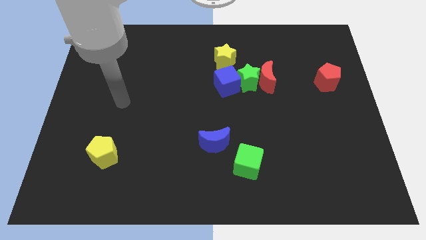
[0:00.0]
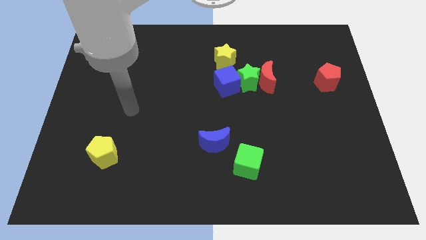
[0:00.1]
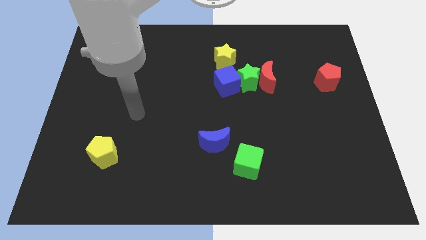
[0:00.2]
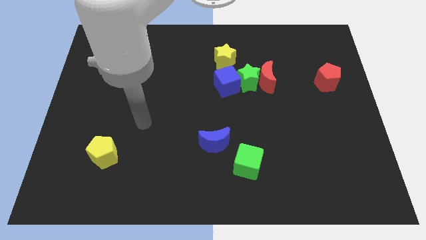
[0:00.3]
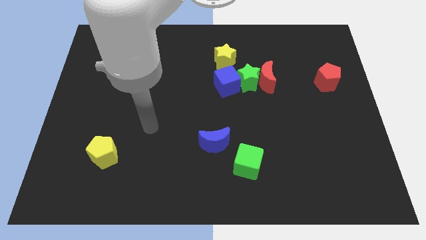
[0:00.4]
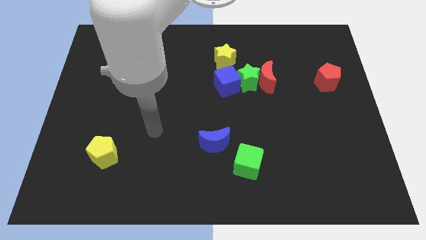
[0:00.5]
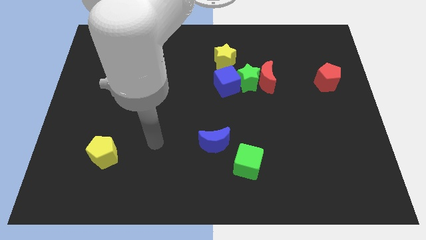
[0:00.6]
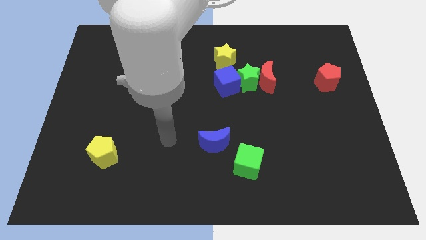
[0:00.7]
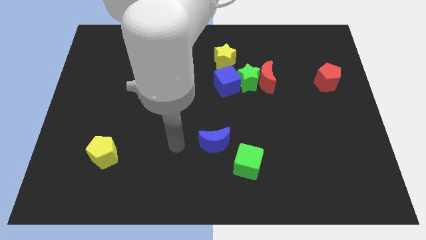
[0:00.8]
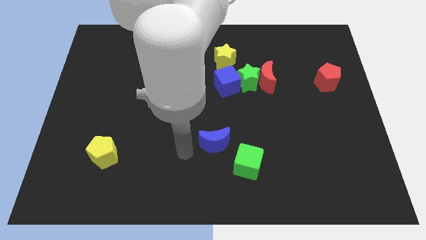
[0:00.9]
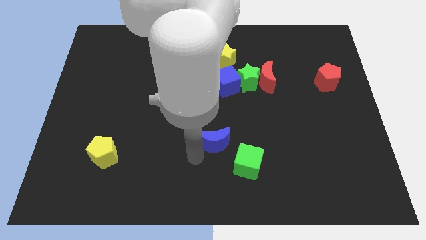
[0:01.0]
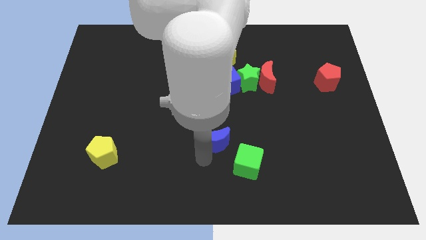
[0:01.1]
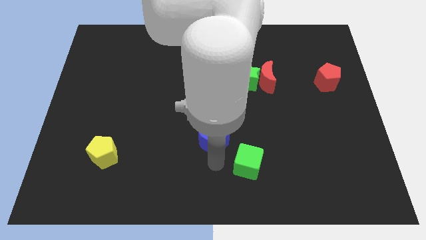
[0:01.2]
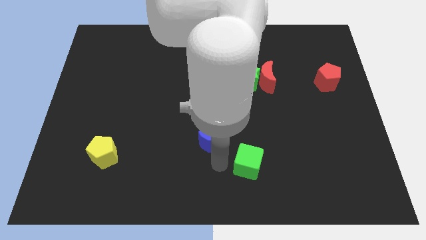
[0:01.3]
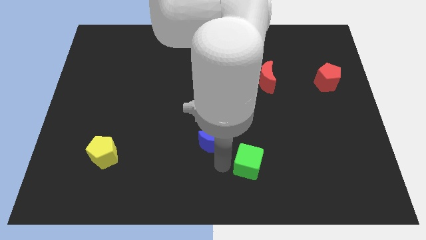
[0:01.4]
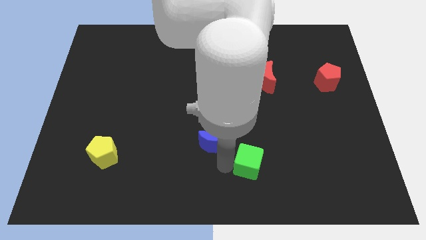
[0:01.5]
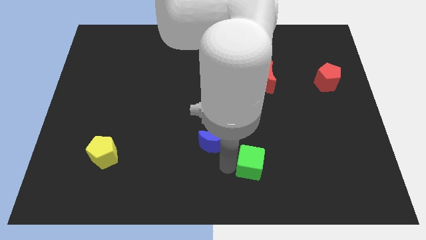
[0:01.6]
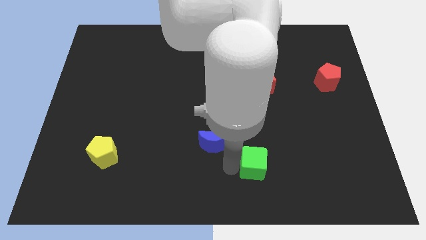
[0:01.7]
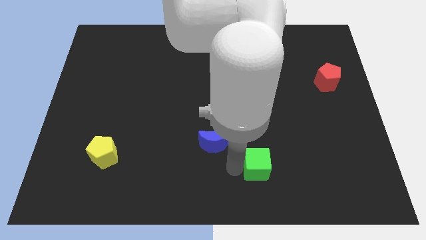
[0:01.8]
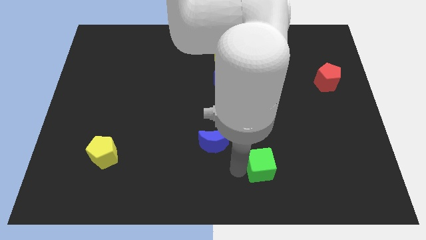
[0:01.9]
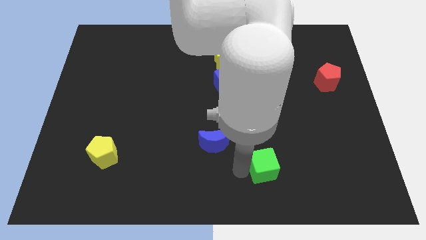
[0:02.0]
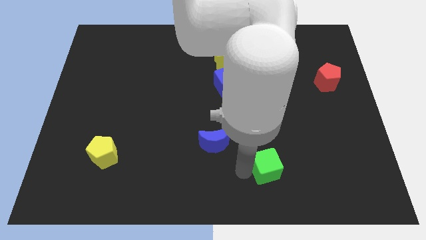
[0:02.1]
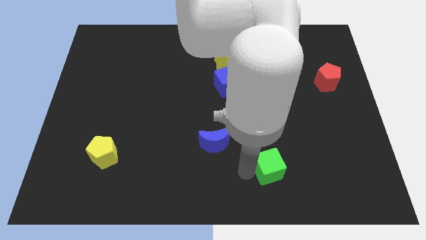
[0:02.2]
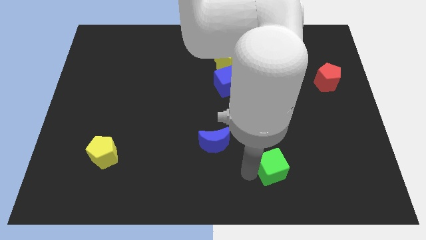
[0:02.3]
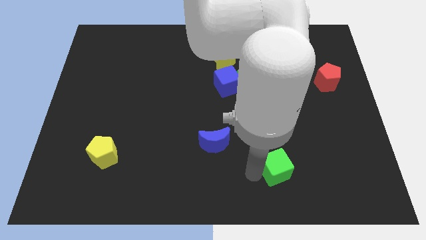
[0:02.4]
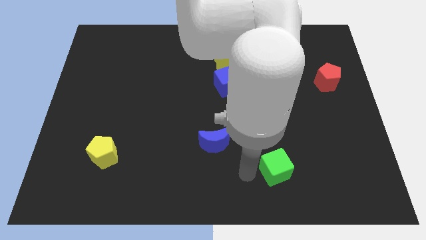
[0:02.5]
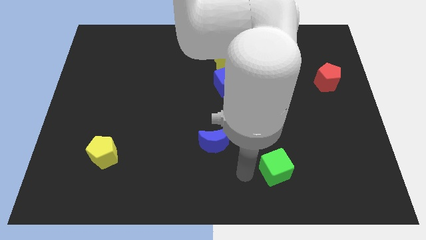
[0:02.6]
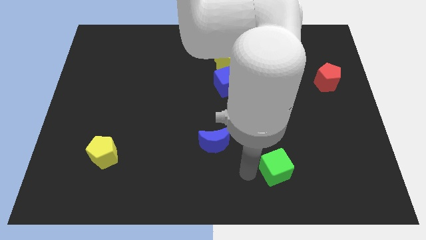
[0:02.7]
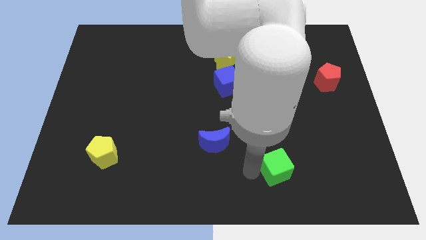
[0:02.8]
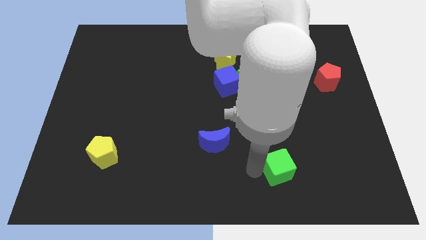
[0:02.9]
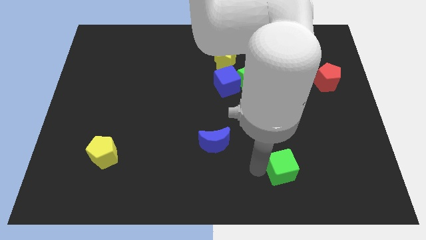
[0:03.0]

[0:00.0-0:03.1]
slightly move the green cube right

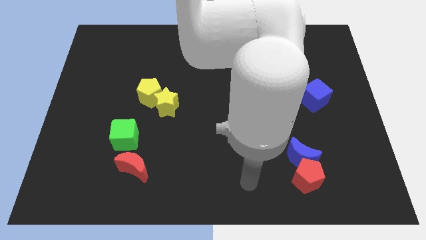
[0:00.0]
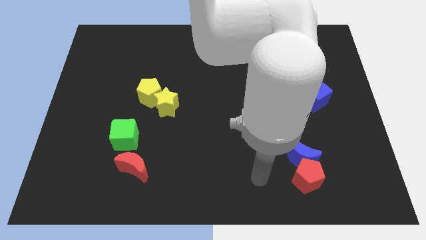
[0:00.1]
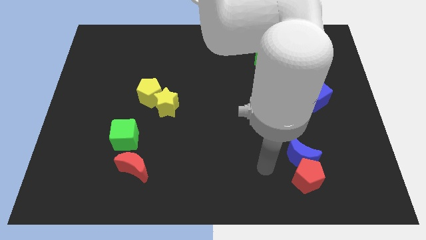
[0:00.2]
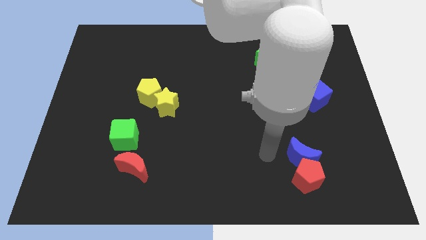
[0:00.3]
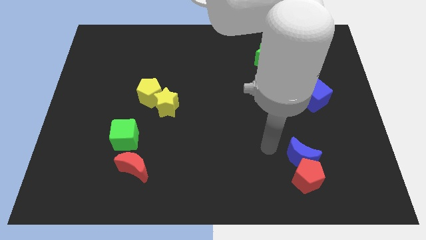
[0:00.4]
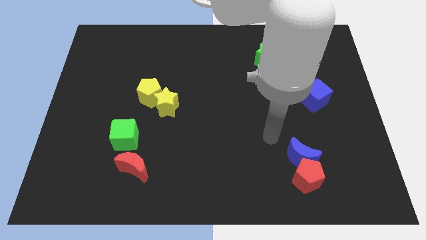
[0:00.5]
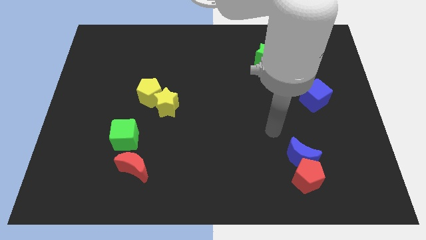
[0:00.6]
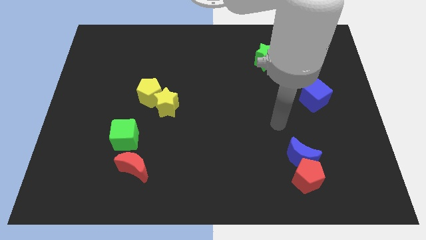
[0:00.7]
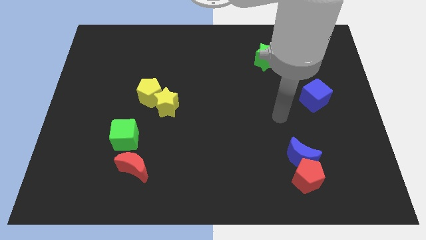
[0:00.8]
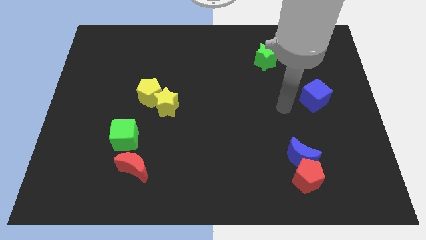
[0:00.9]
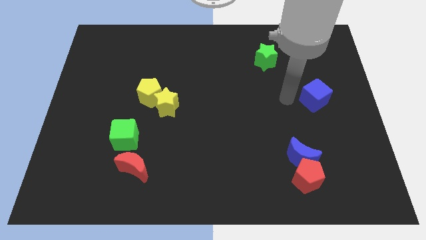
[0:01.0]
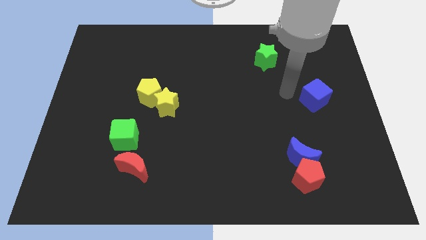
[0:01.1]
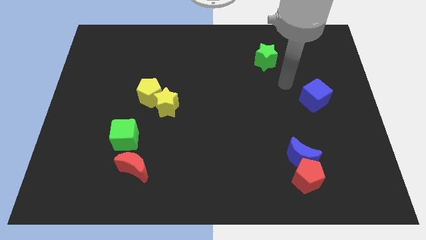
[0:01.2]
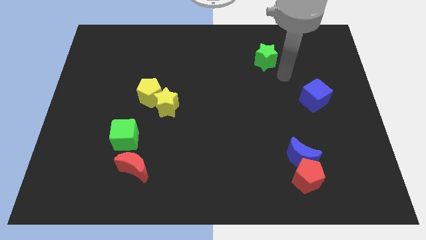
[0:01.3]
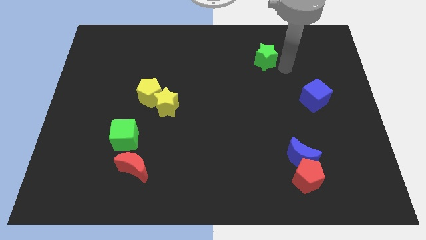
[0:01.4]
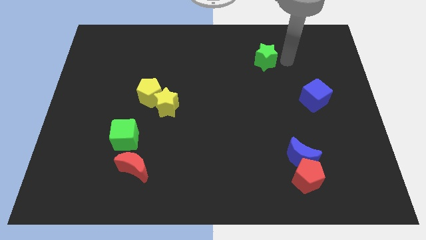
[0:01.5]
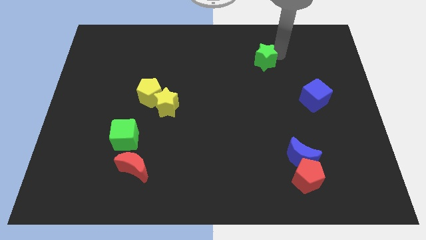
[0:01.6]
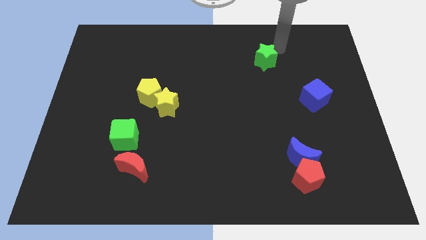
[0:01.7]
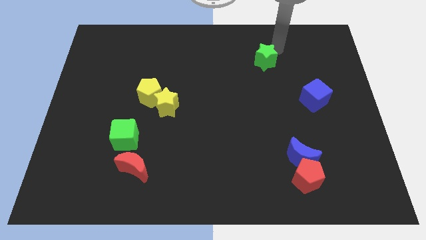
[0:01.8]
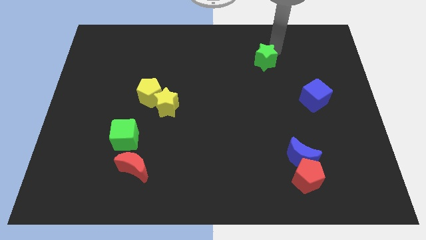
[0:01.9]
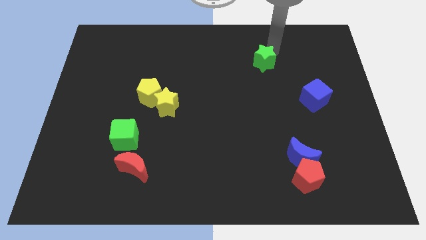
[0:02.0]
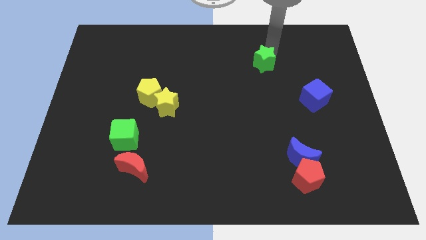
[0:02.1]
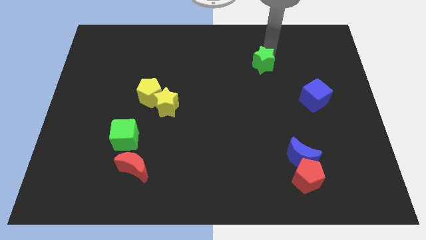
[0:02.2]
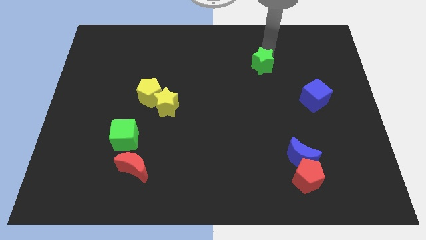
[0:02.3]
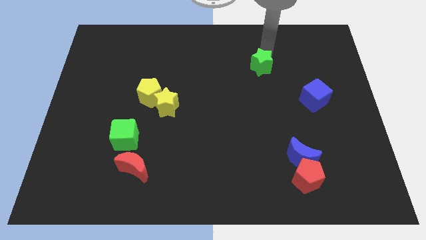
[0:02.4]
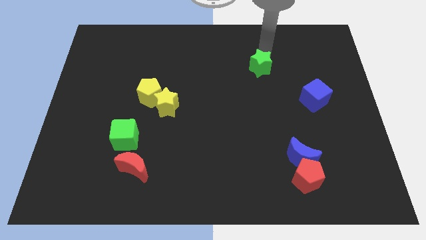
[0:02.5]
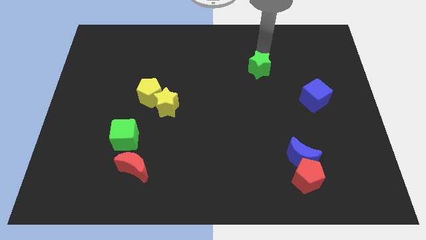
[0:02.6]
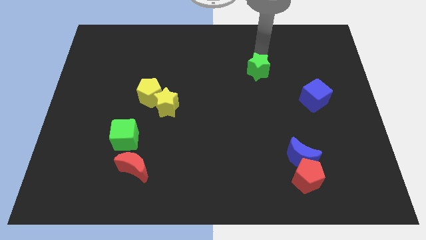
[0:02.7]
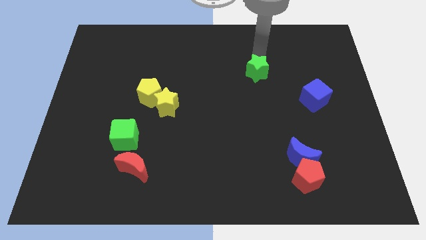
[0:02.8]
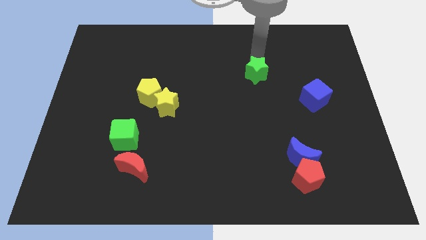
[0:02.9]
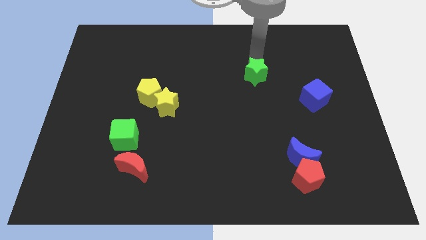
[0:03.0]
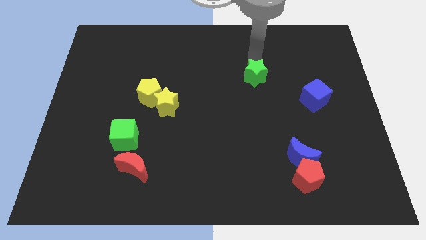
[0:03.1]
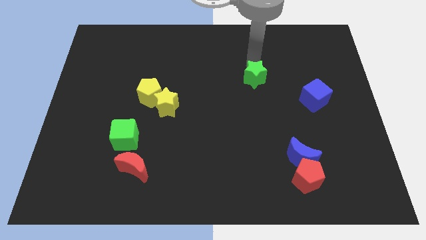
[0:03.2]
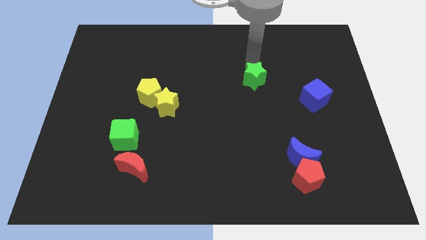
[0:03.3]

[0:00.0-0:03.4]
slide the green star downwards and then to the left a little bit

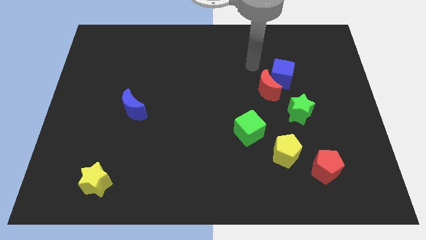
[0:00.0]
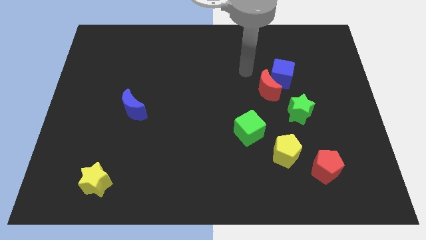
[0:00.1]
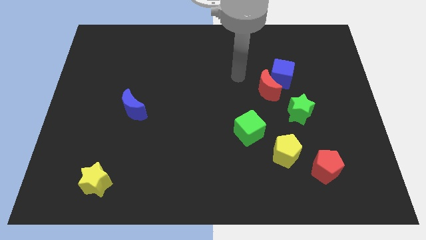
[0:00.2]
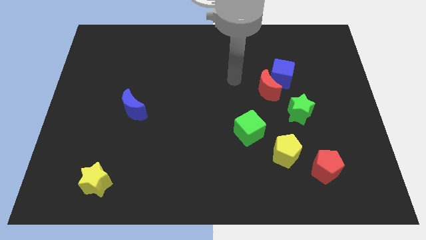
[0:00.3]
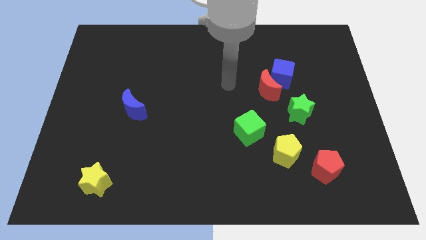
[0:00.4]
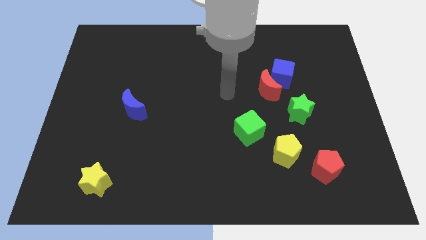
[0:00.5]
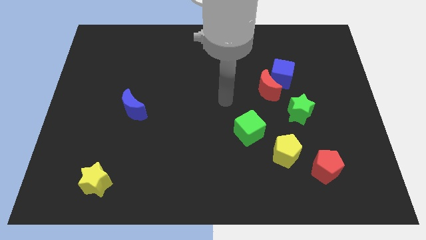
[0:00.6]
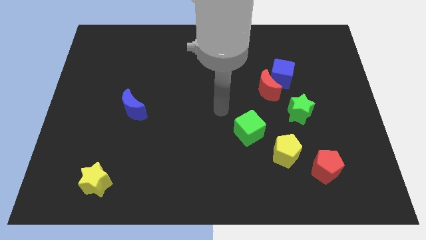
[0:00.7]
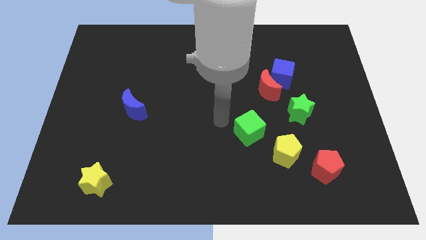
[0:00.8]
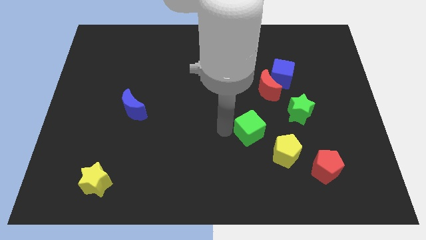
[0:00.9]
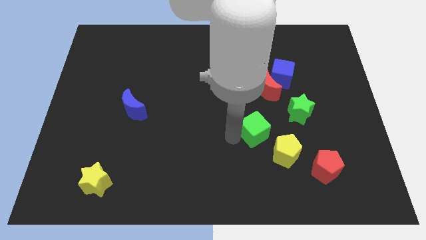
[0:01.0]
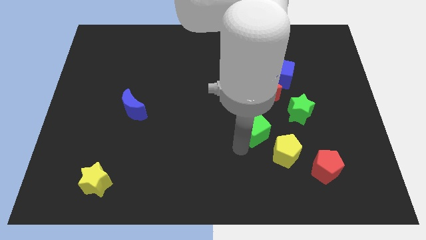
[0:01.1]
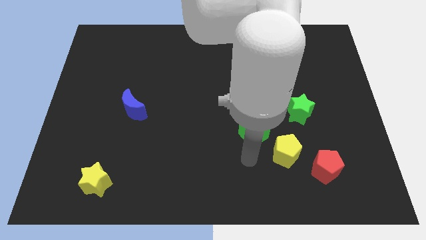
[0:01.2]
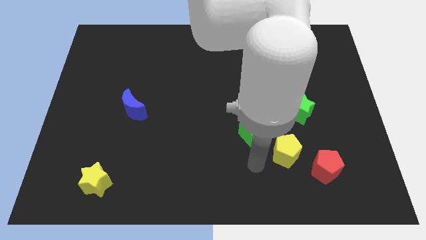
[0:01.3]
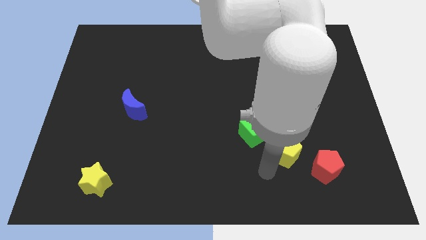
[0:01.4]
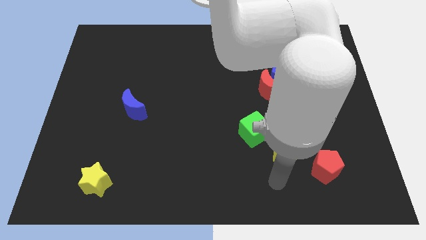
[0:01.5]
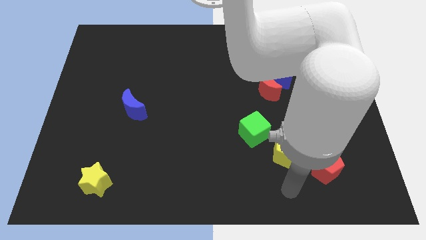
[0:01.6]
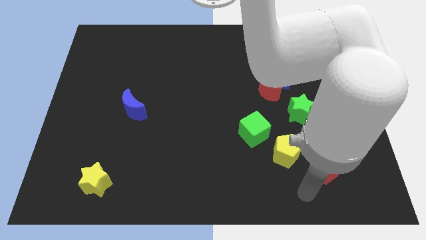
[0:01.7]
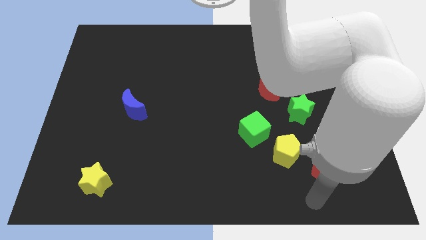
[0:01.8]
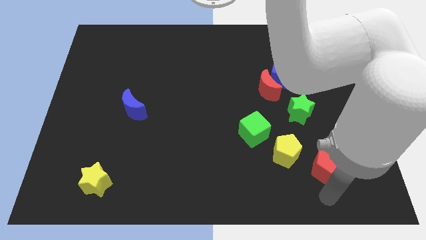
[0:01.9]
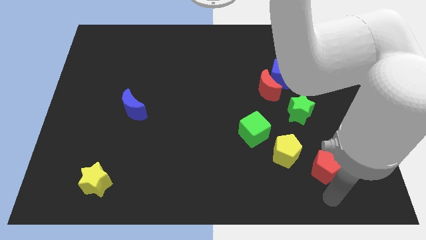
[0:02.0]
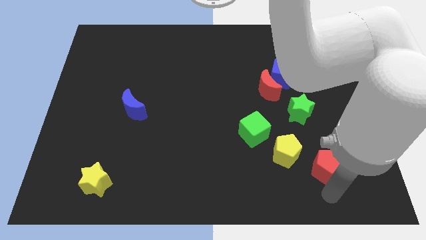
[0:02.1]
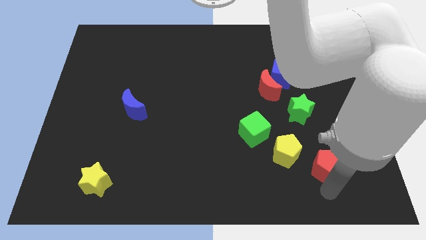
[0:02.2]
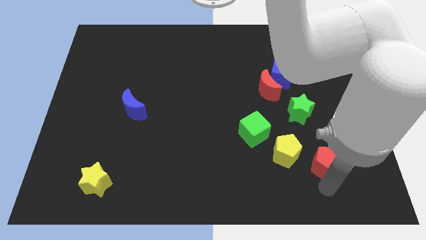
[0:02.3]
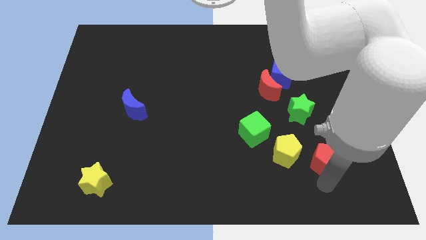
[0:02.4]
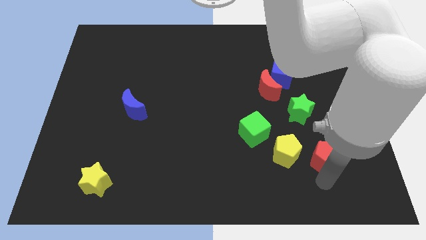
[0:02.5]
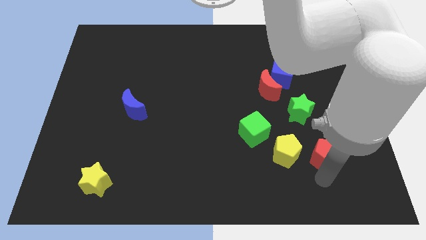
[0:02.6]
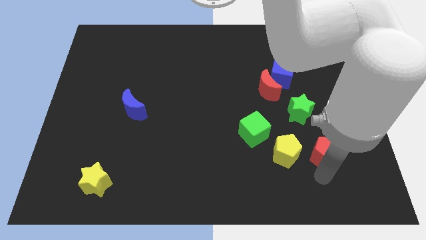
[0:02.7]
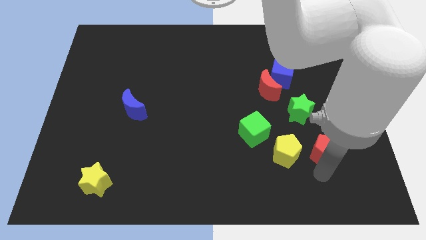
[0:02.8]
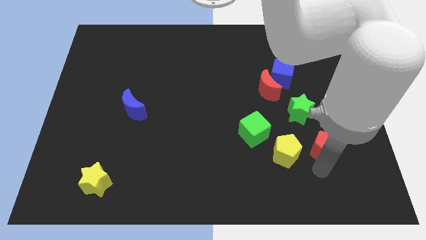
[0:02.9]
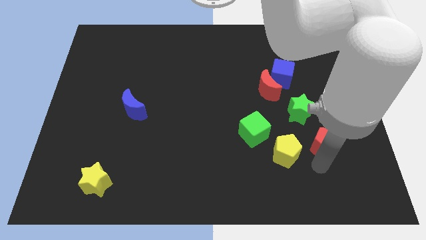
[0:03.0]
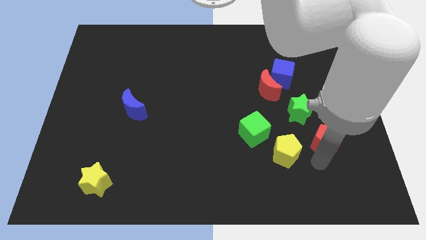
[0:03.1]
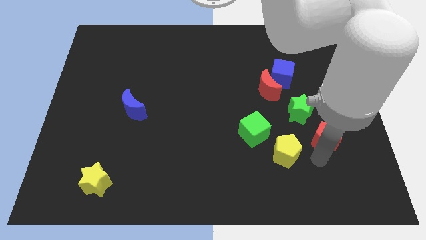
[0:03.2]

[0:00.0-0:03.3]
push the red pentagon a little up
